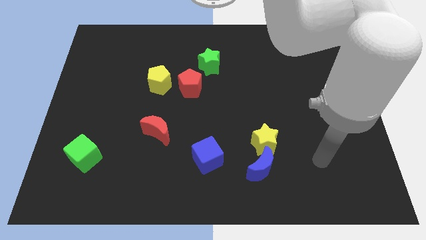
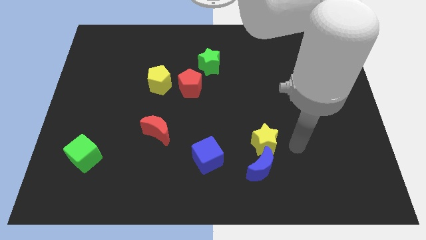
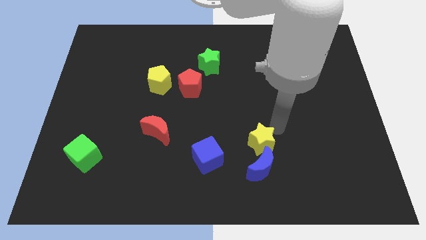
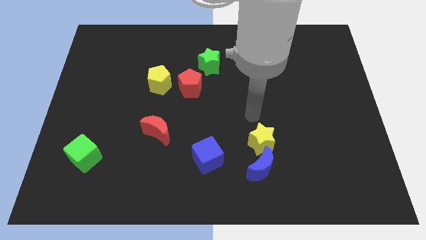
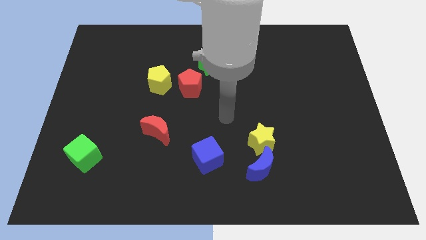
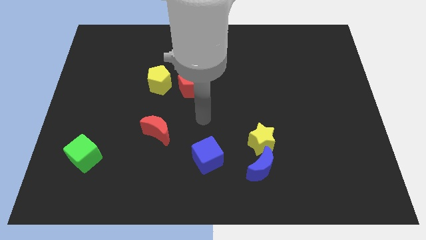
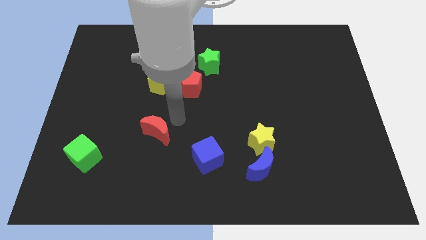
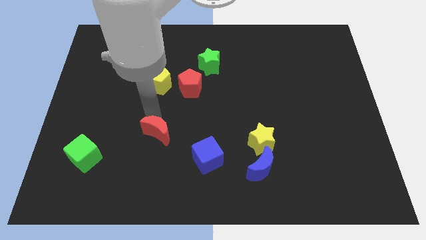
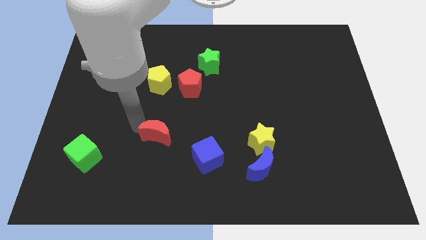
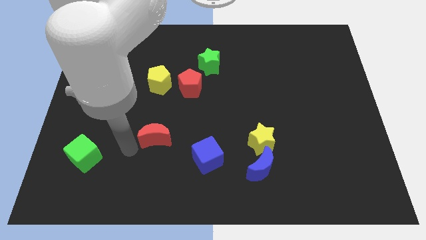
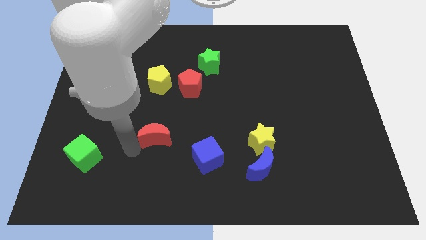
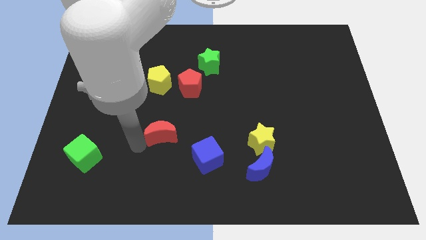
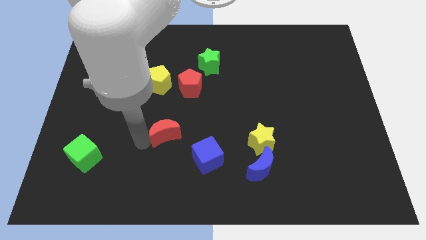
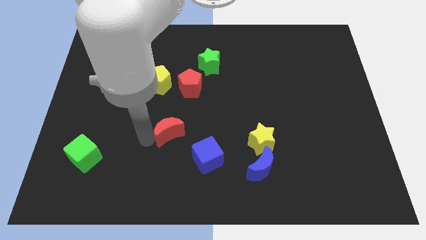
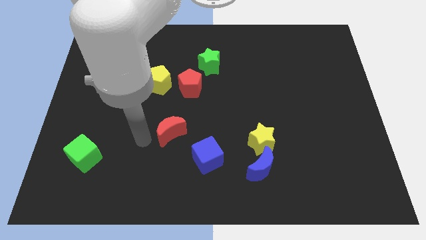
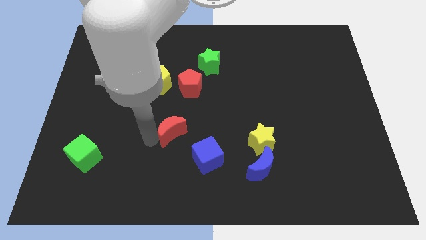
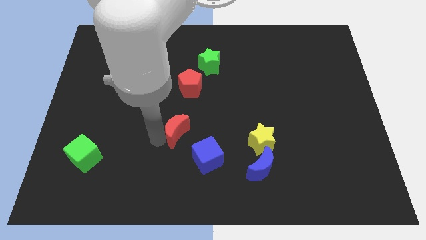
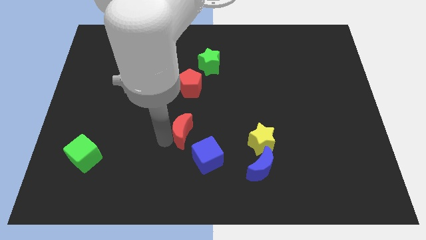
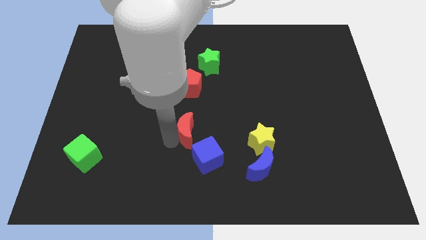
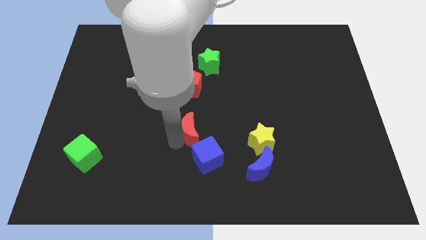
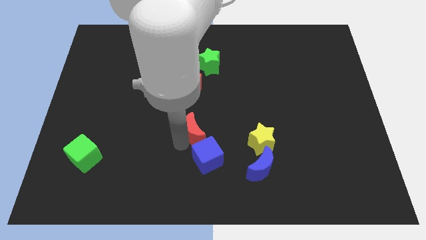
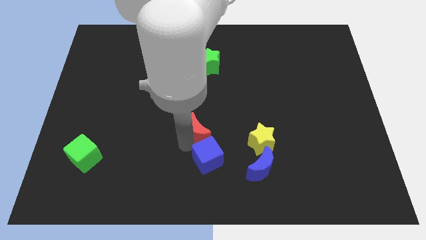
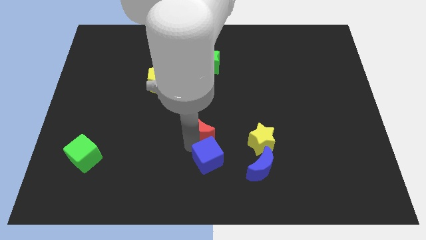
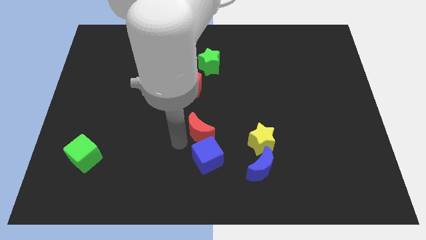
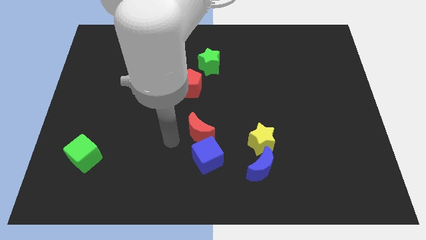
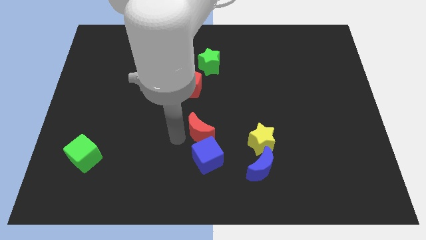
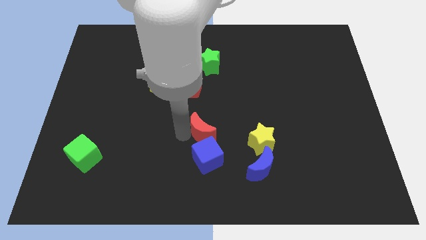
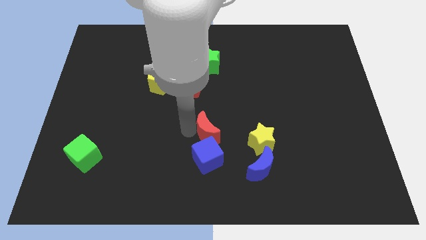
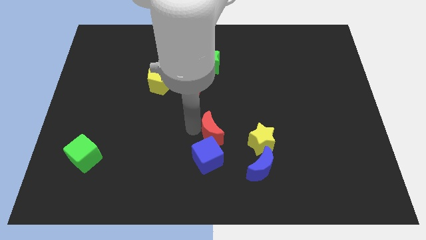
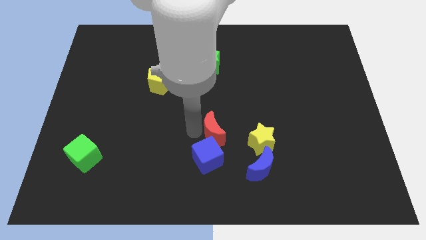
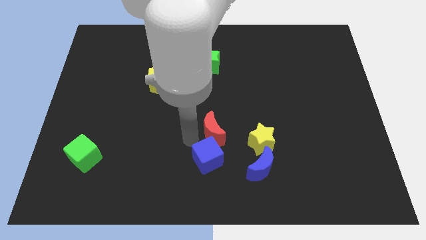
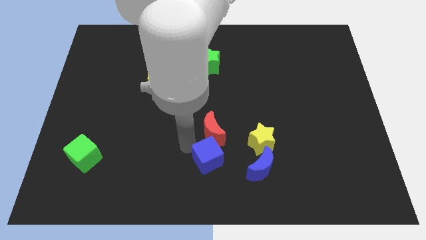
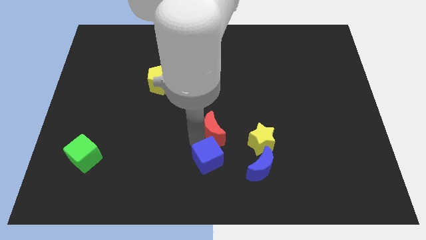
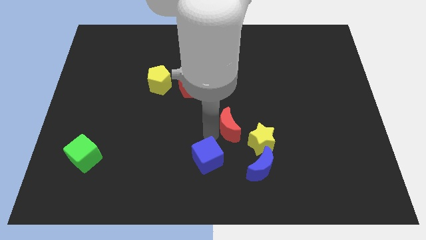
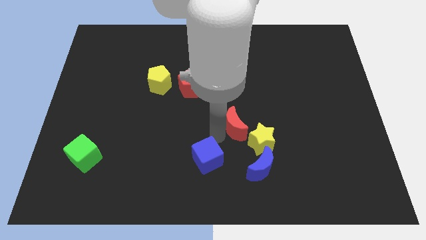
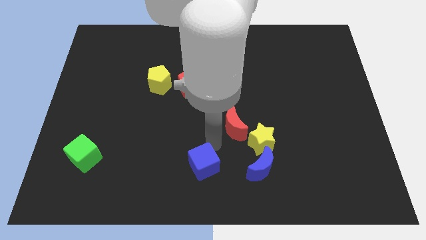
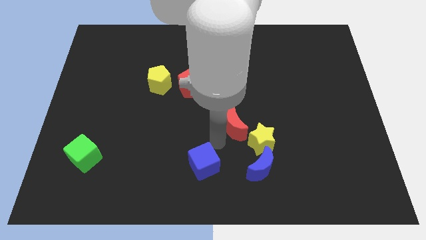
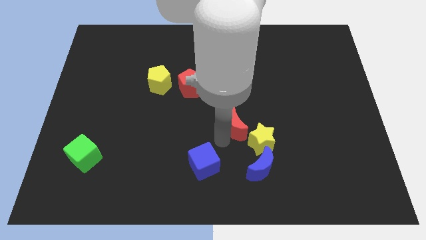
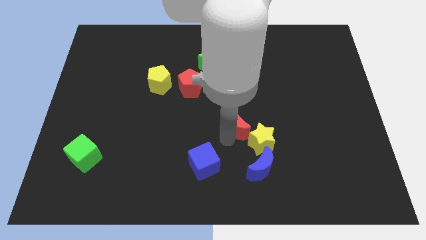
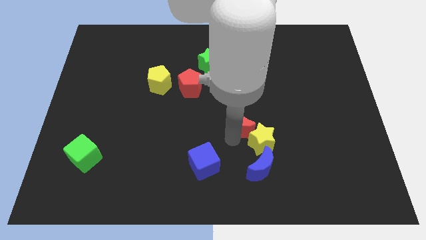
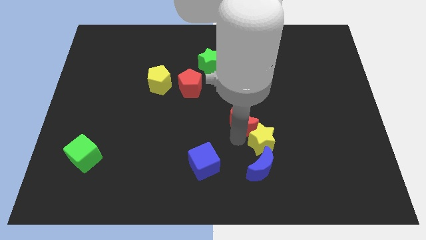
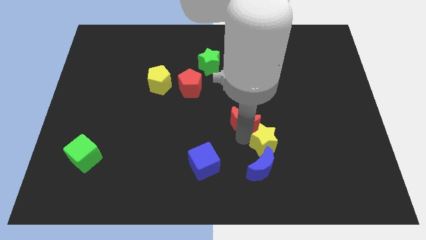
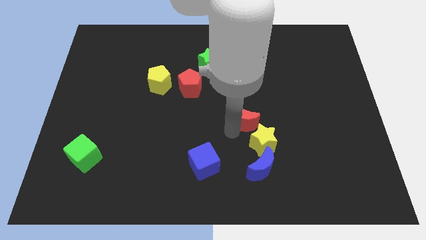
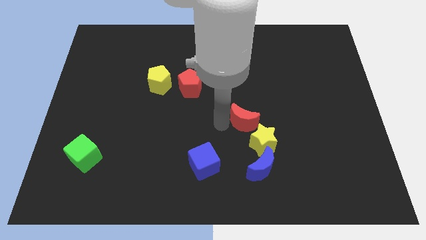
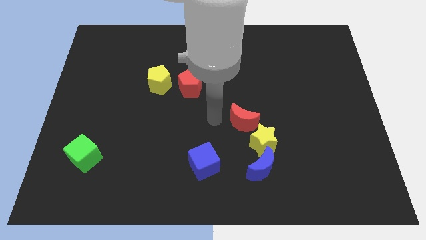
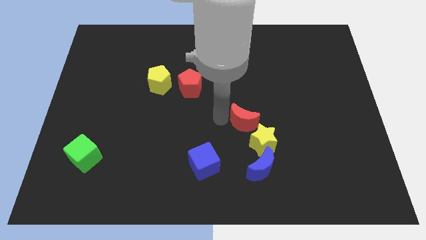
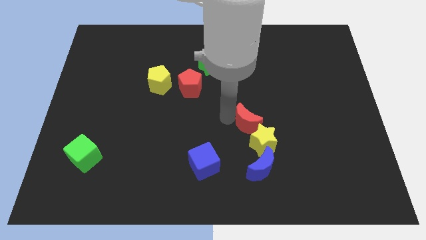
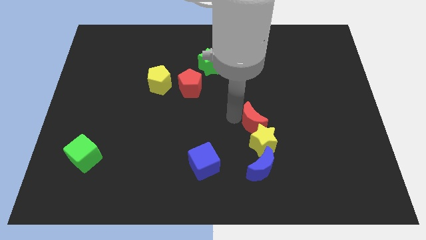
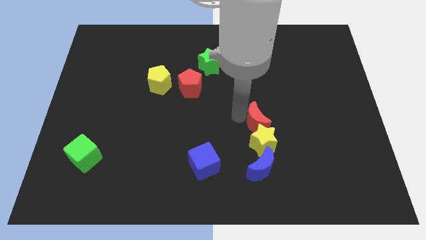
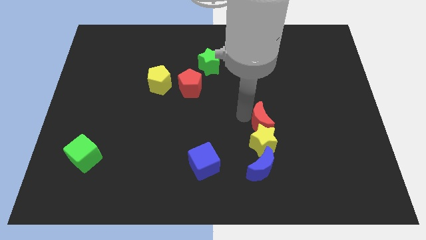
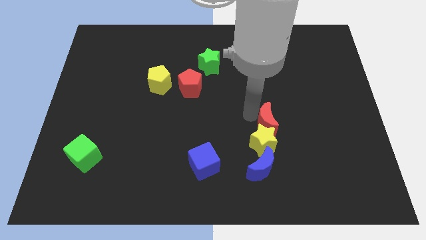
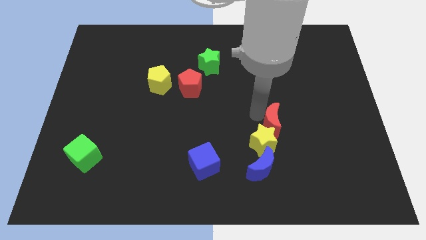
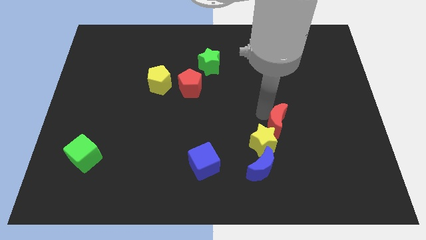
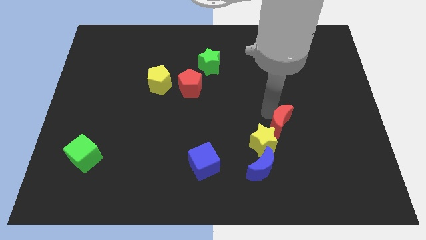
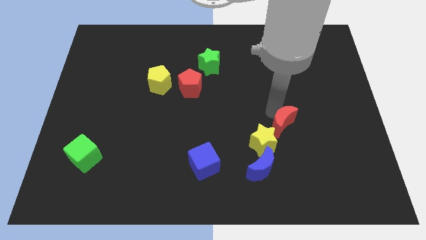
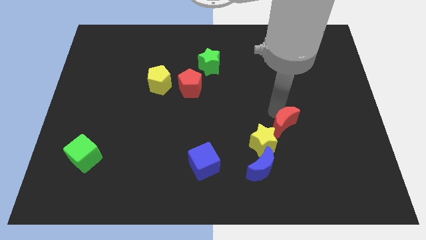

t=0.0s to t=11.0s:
move the red moon right of the yellow star
